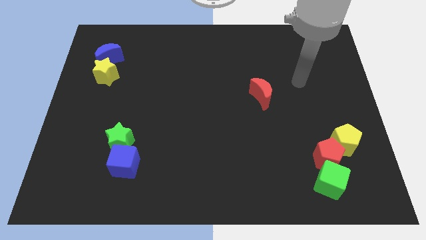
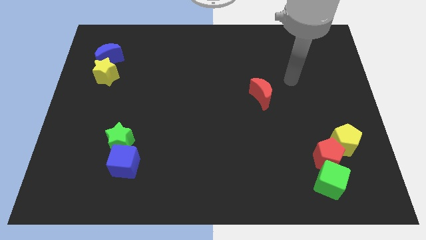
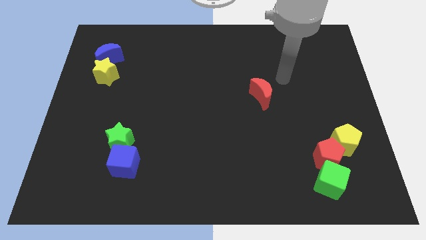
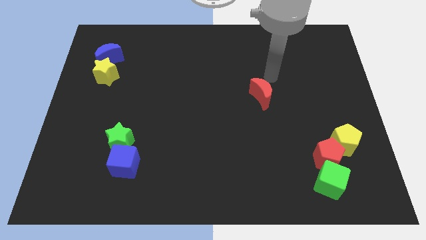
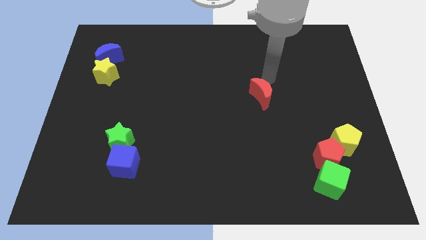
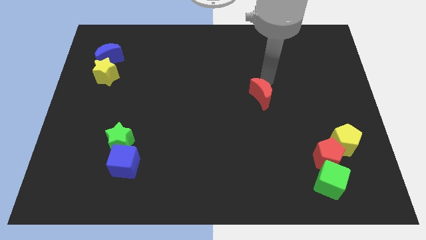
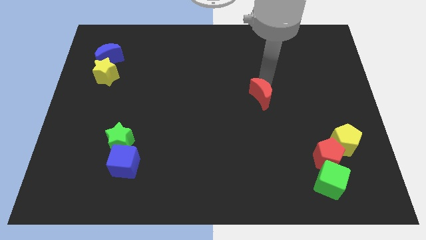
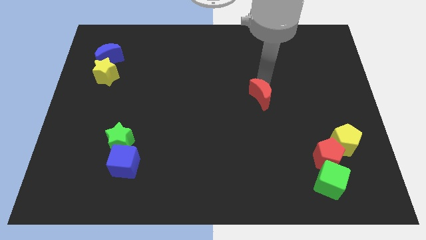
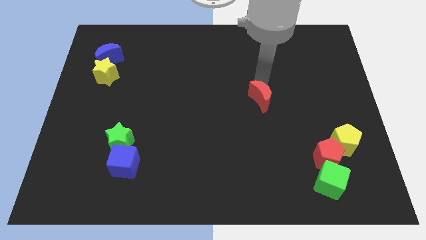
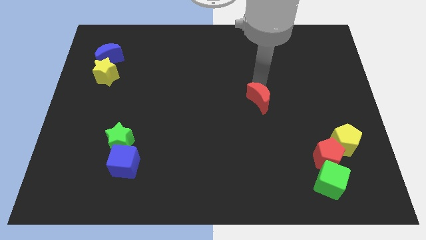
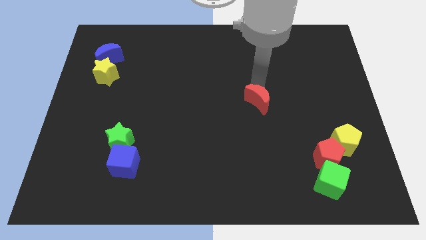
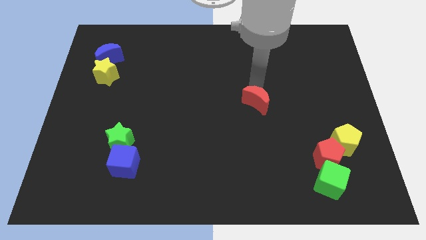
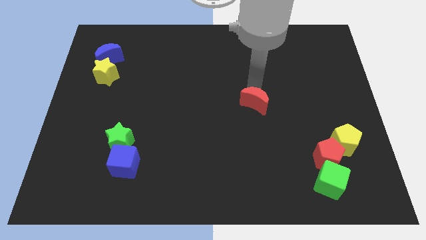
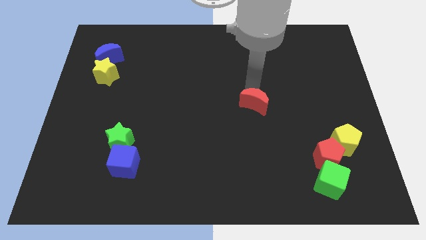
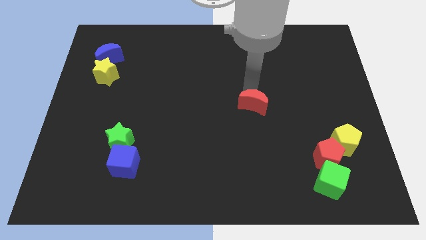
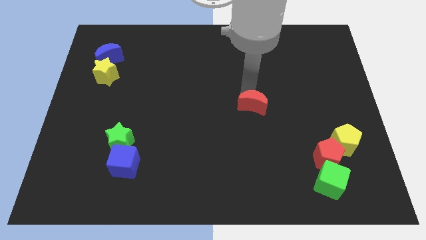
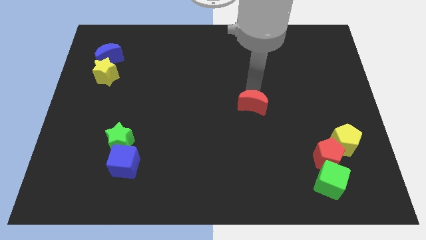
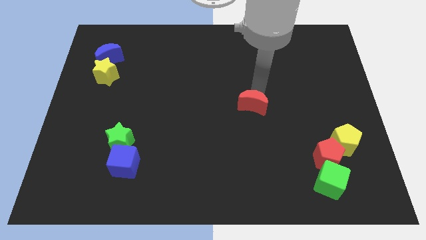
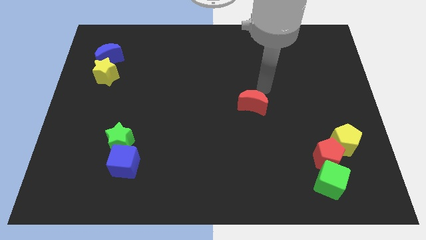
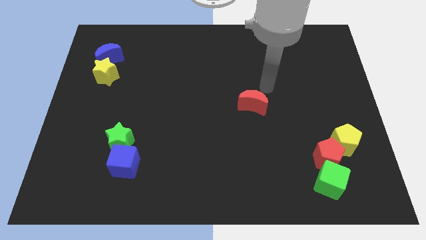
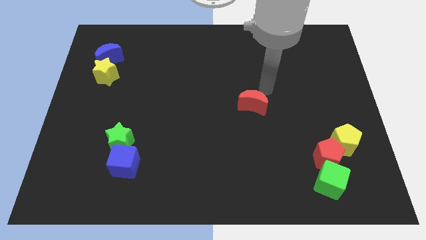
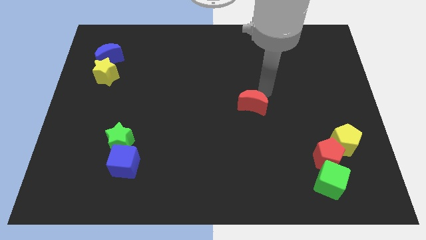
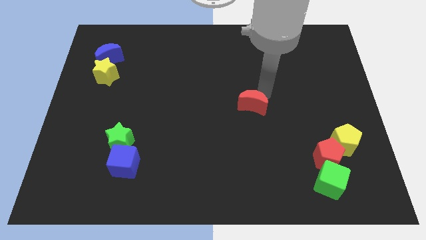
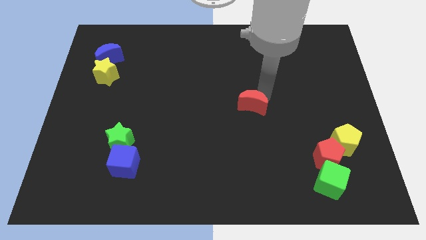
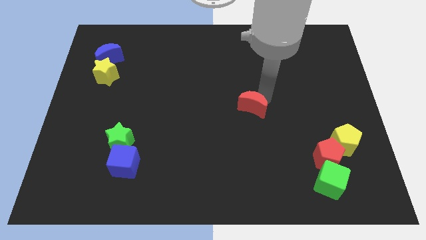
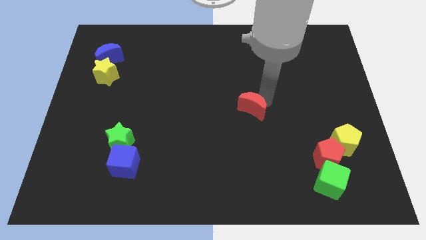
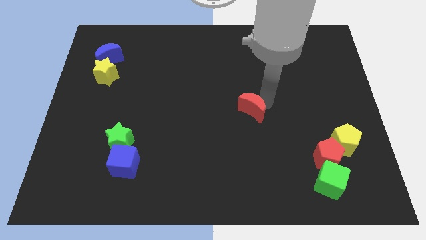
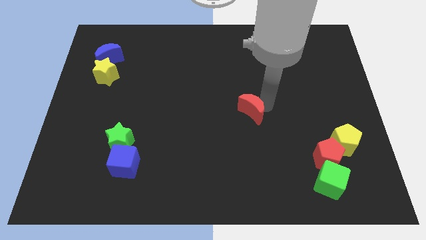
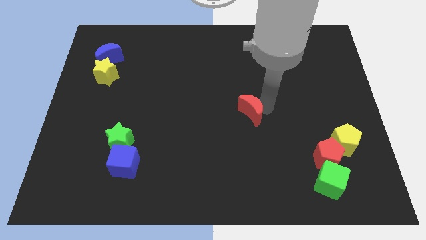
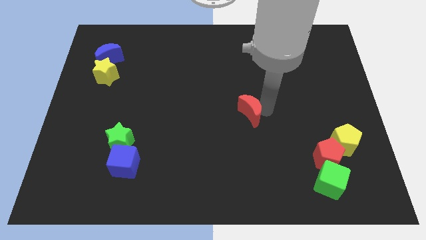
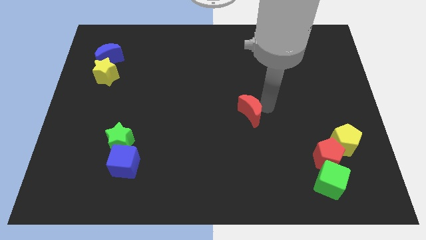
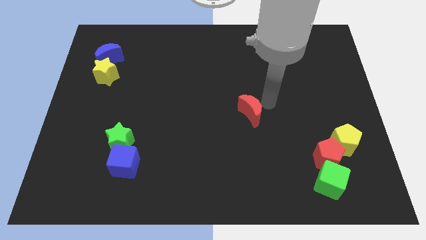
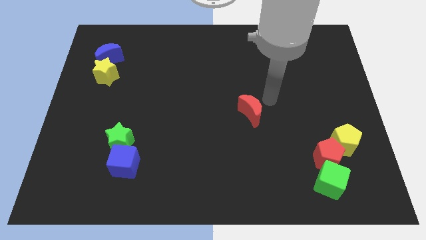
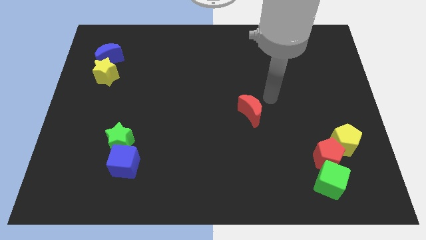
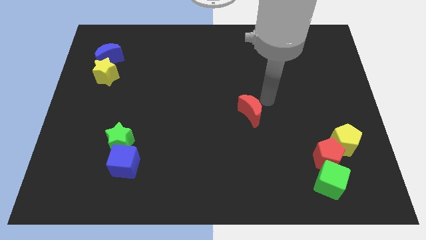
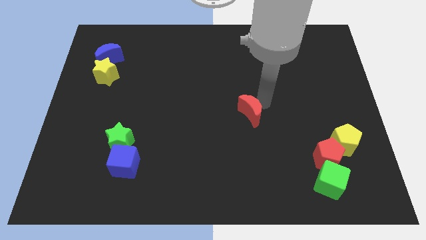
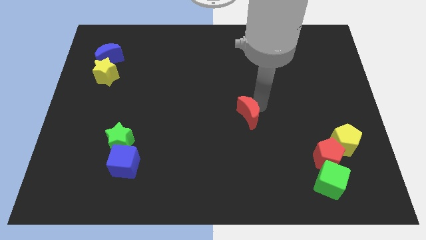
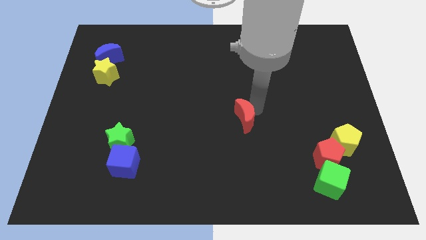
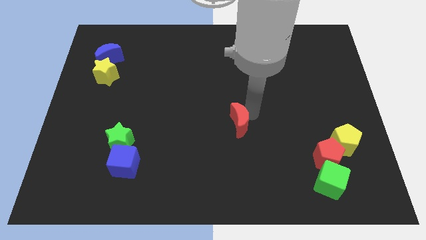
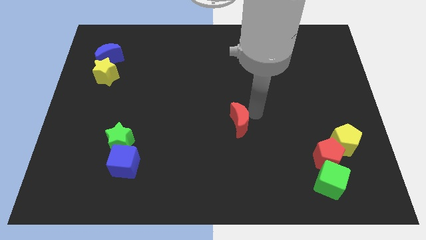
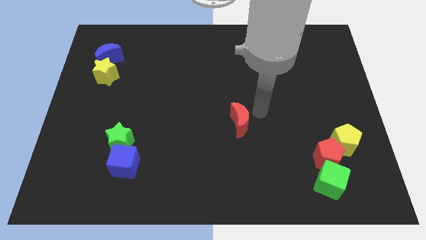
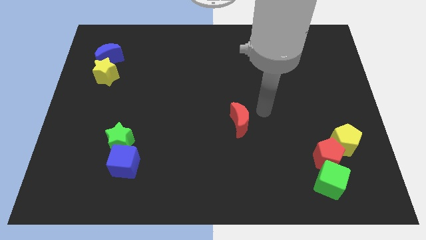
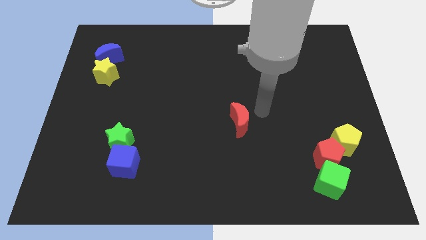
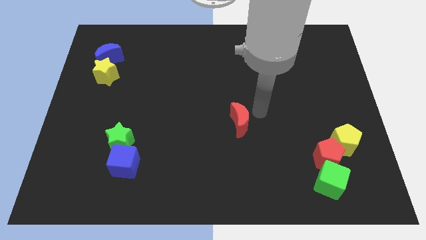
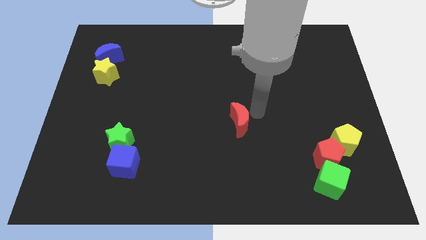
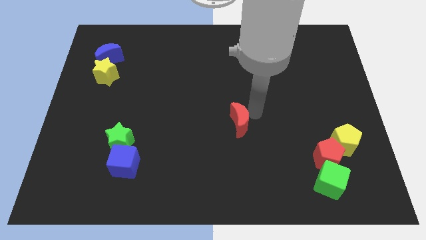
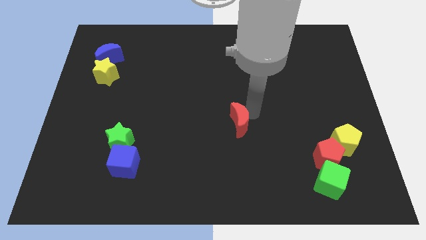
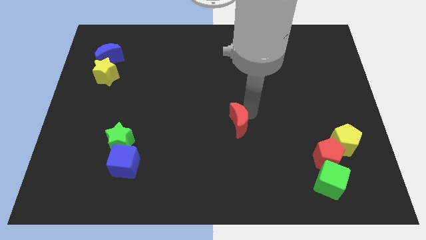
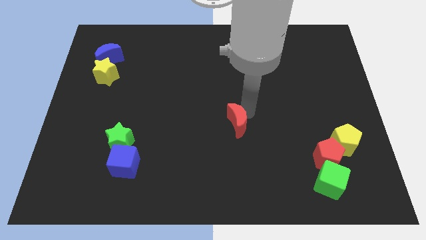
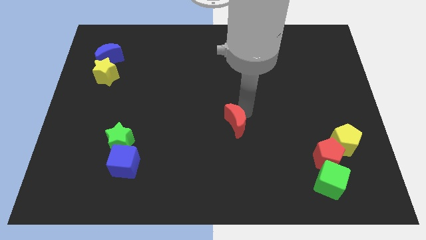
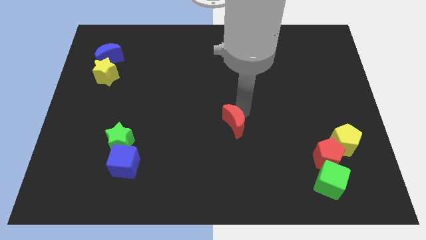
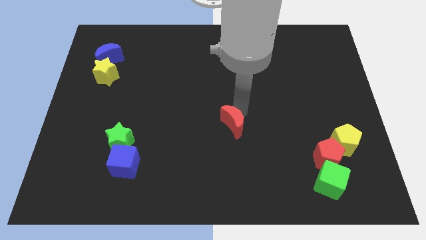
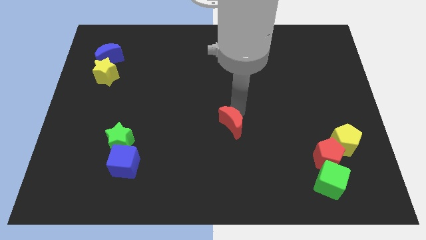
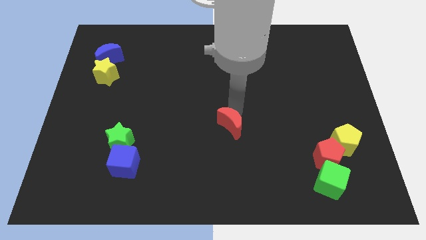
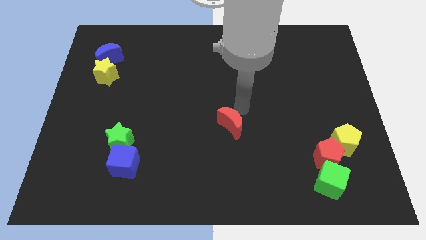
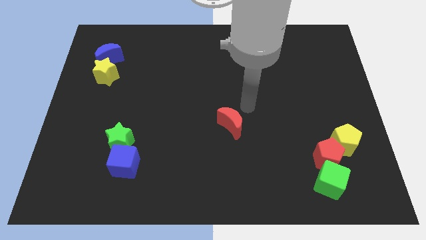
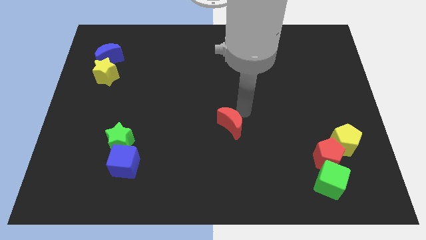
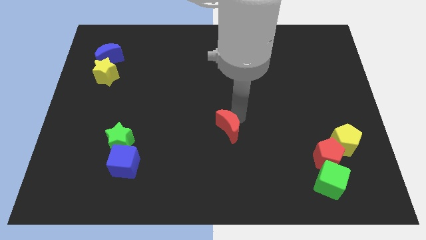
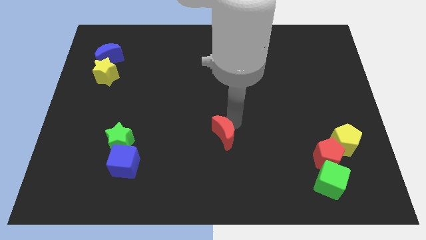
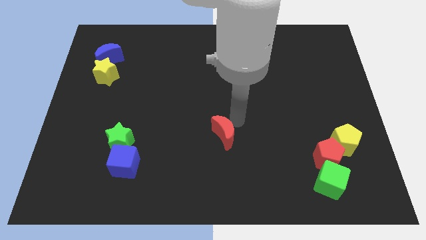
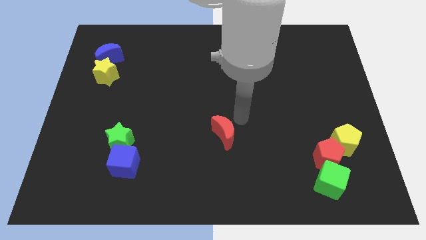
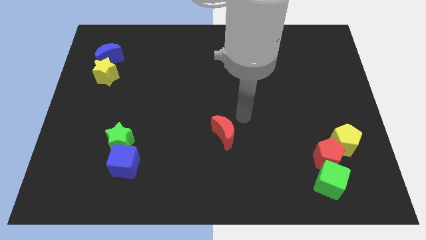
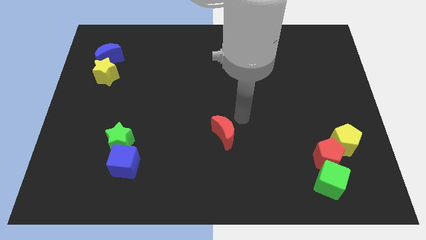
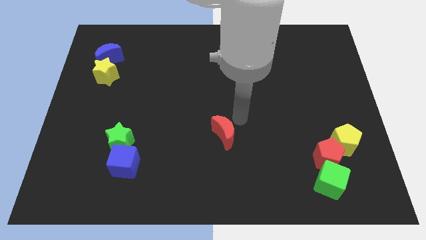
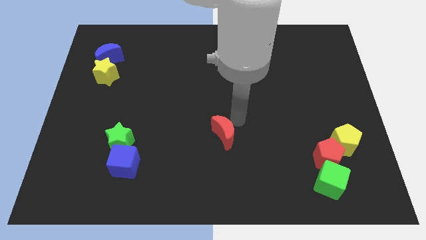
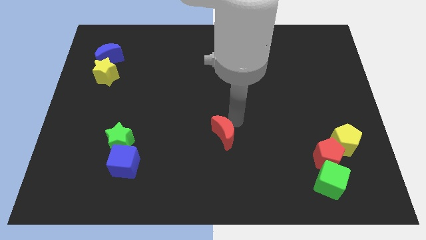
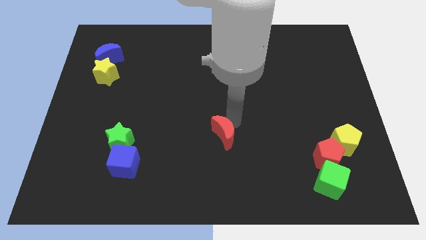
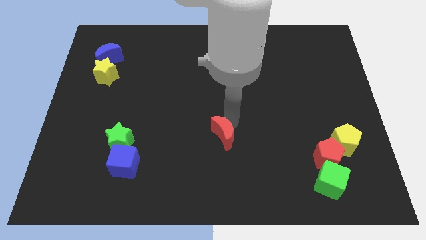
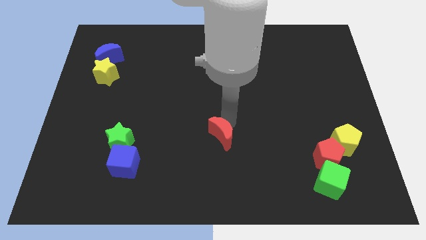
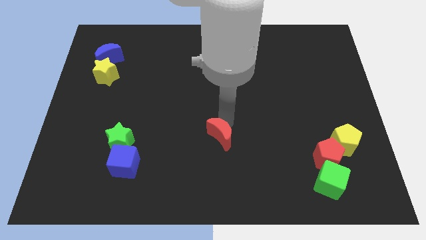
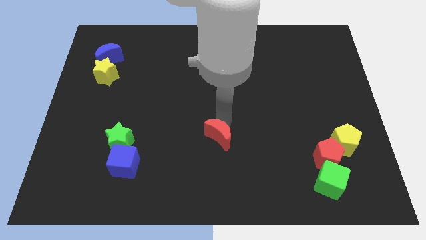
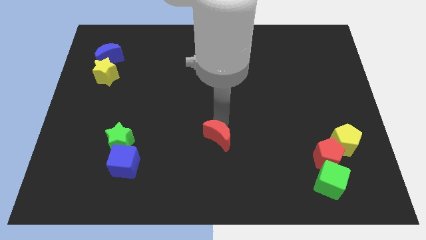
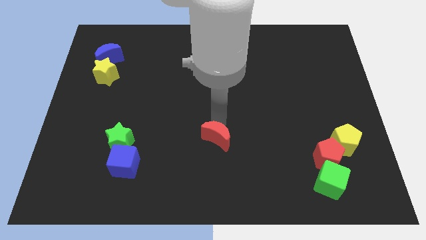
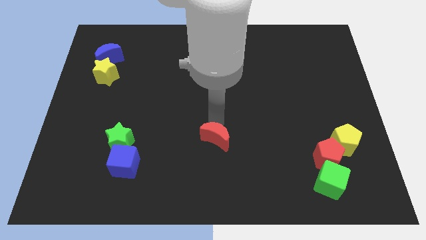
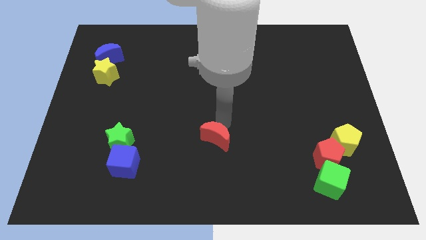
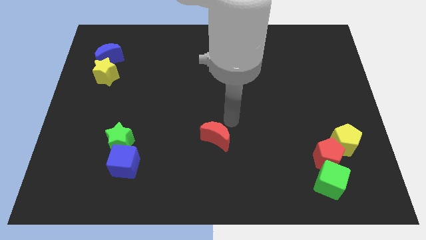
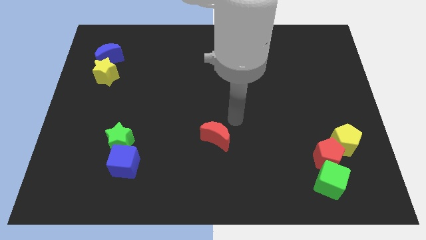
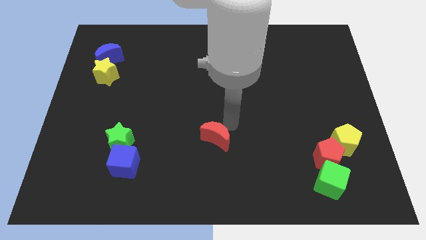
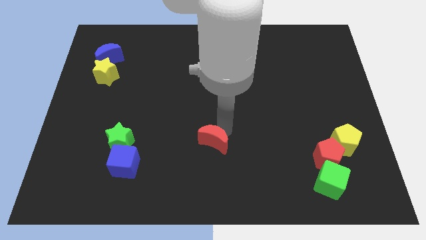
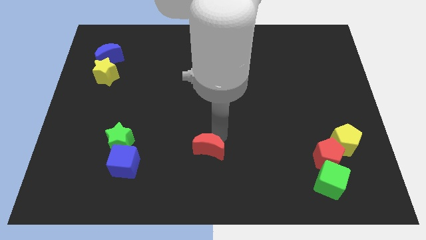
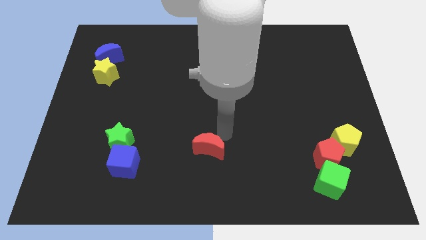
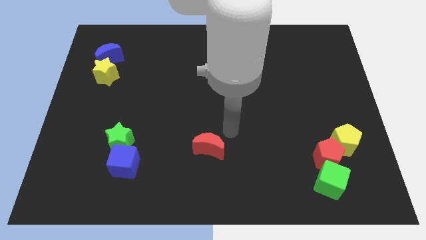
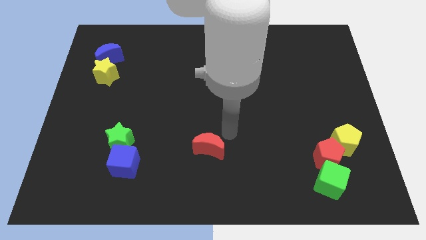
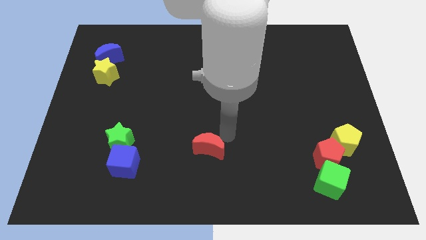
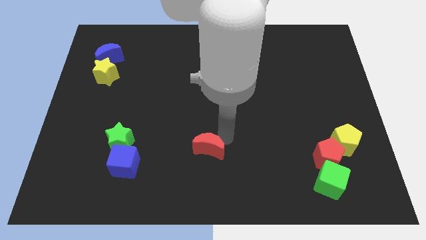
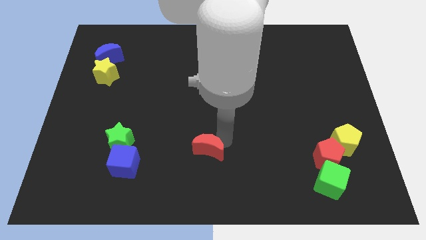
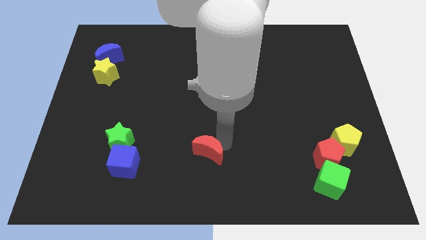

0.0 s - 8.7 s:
slide the red moon down and then left
